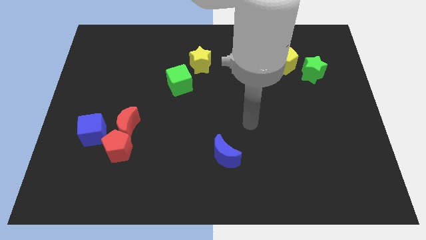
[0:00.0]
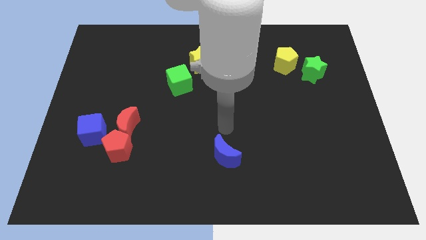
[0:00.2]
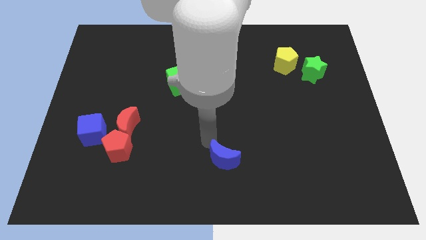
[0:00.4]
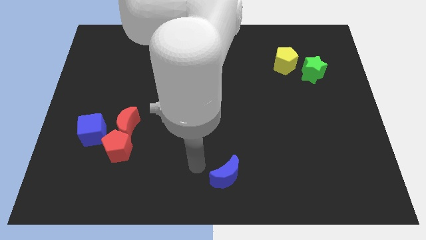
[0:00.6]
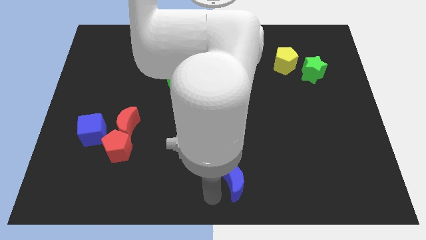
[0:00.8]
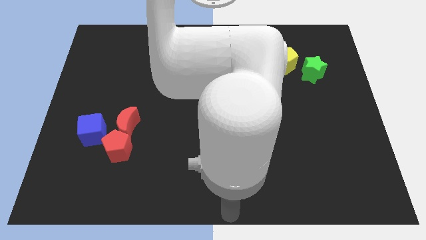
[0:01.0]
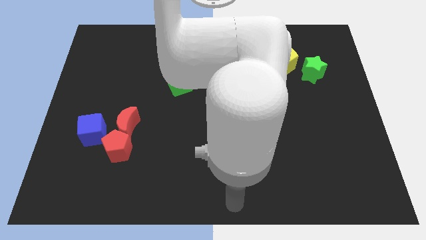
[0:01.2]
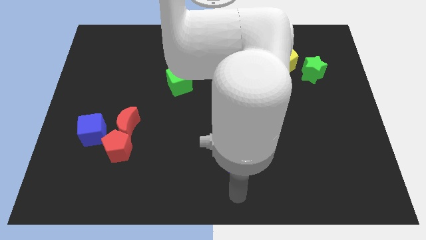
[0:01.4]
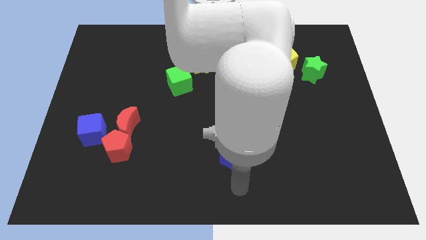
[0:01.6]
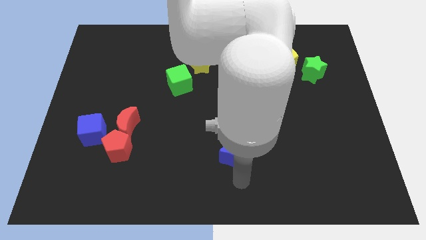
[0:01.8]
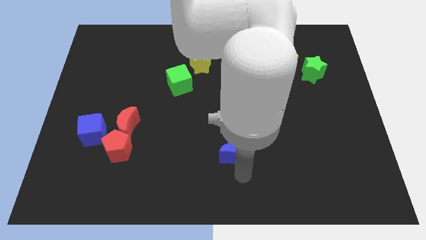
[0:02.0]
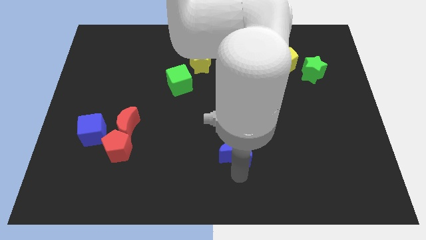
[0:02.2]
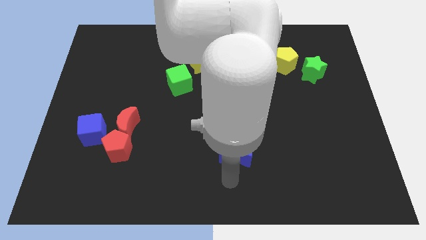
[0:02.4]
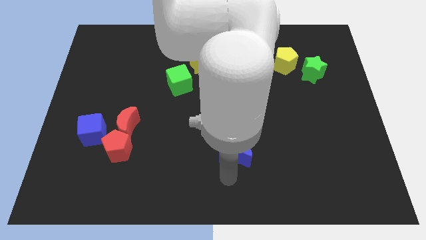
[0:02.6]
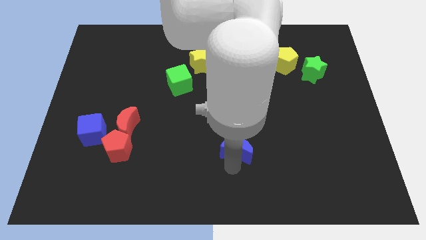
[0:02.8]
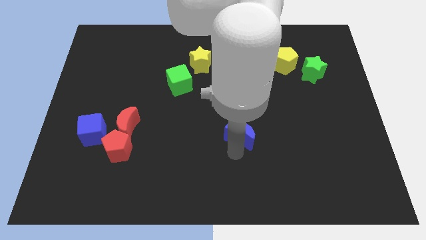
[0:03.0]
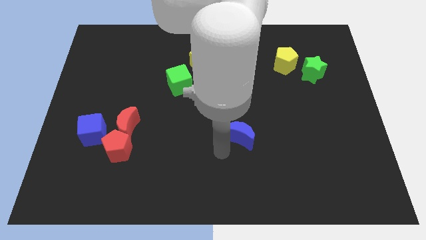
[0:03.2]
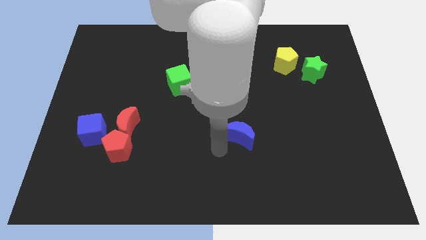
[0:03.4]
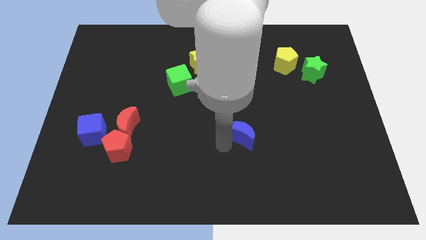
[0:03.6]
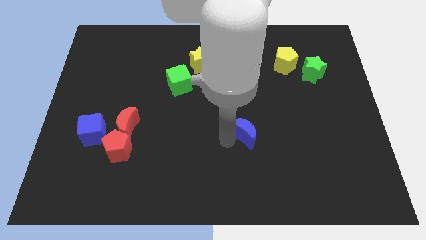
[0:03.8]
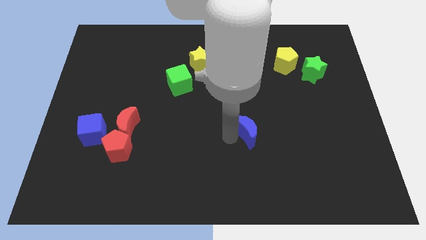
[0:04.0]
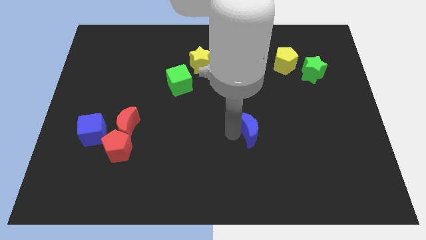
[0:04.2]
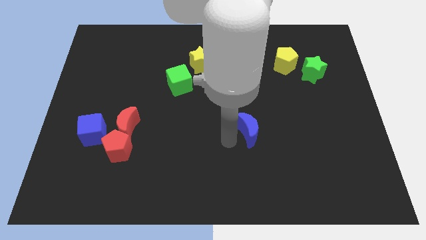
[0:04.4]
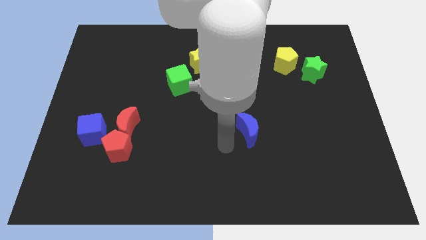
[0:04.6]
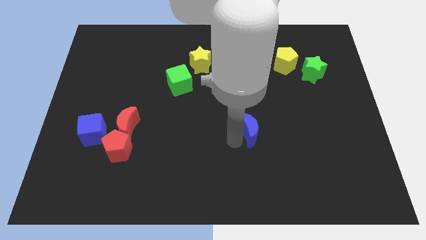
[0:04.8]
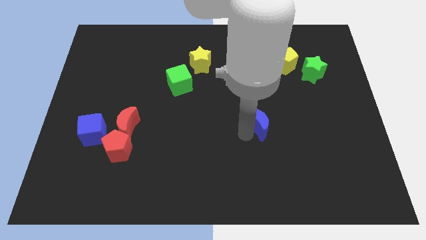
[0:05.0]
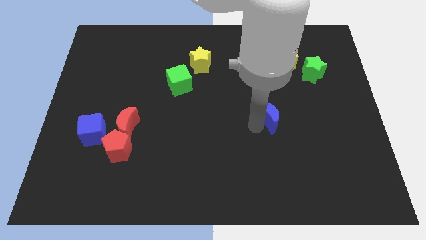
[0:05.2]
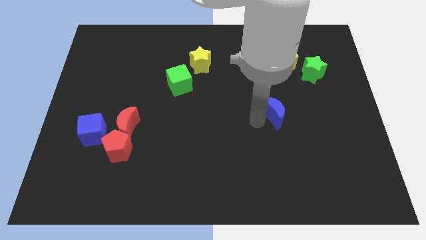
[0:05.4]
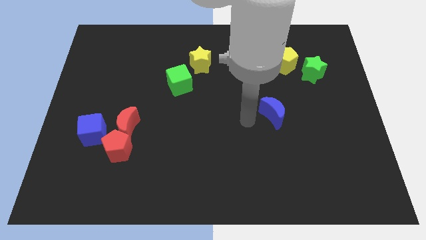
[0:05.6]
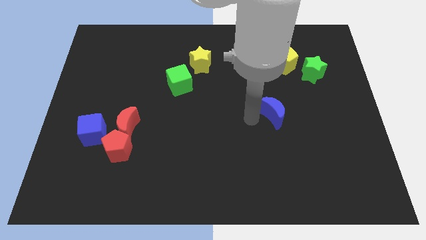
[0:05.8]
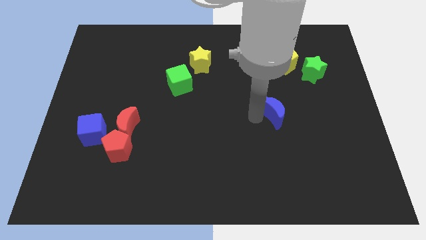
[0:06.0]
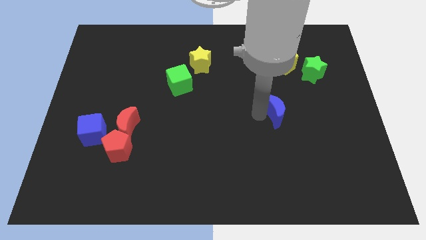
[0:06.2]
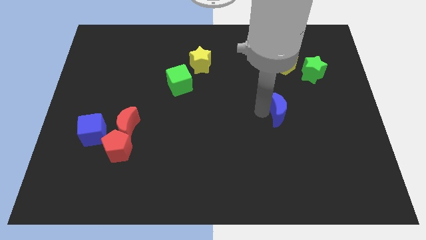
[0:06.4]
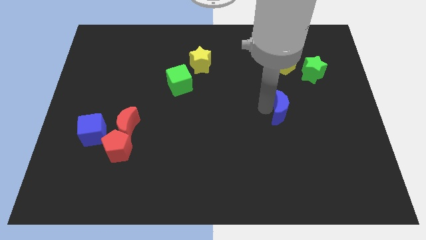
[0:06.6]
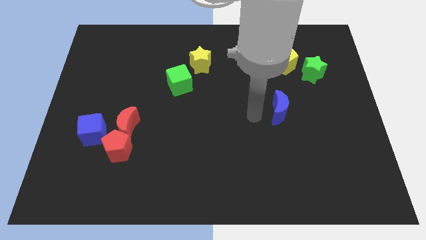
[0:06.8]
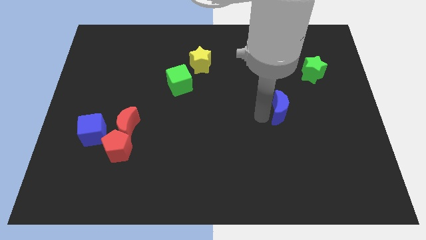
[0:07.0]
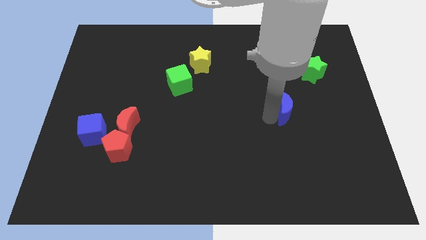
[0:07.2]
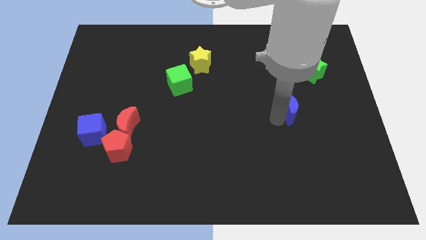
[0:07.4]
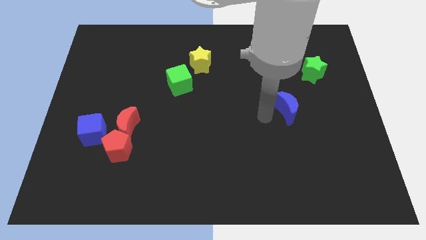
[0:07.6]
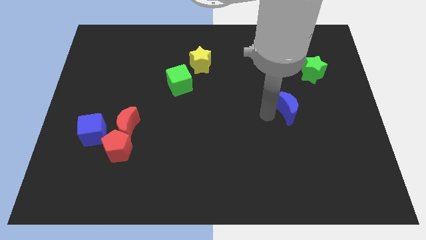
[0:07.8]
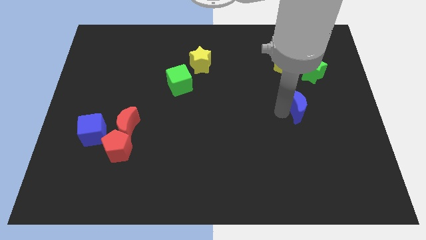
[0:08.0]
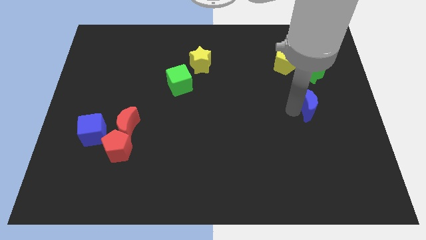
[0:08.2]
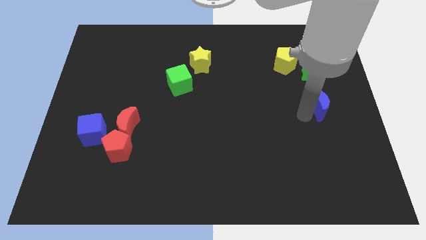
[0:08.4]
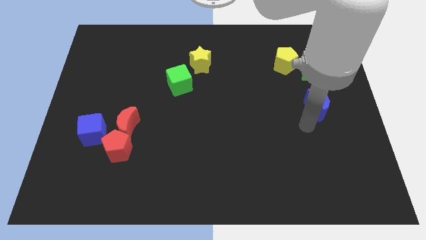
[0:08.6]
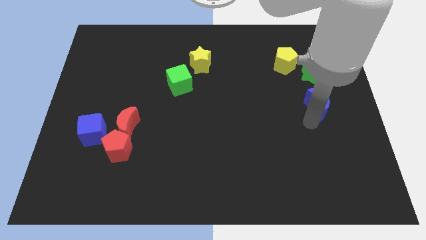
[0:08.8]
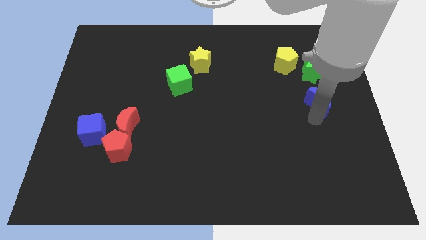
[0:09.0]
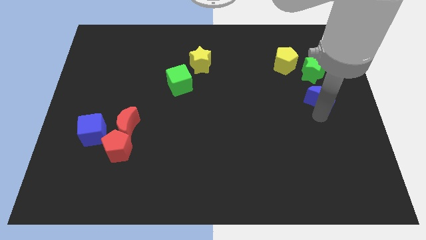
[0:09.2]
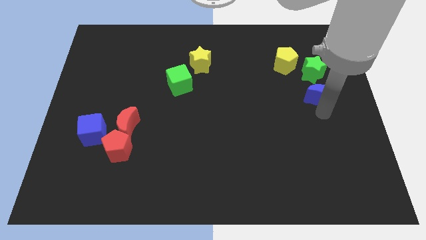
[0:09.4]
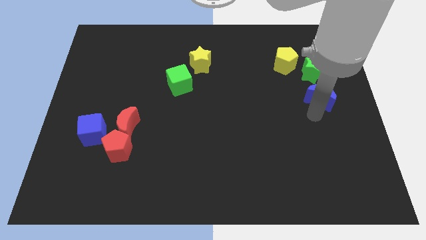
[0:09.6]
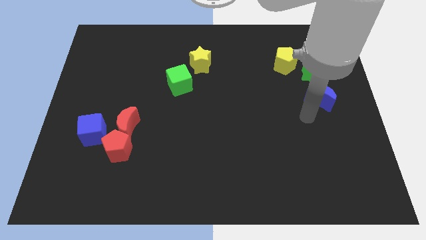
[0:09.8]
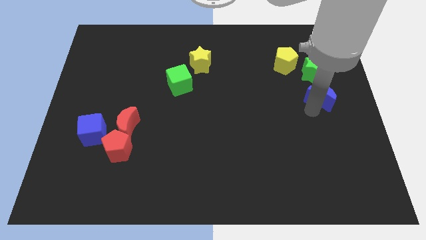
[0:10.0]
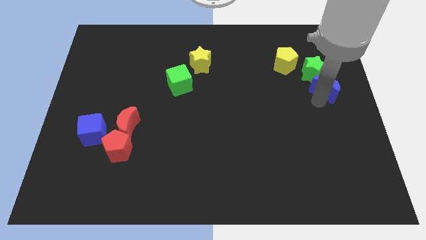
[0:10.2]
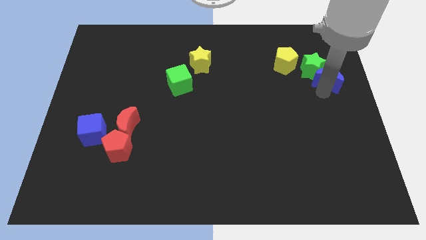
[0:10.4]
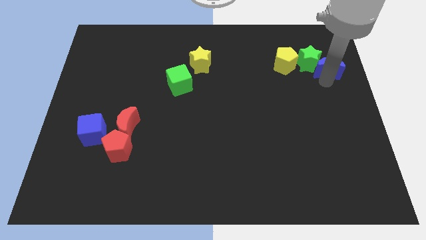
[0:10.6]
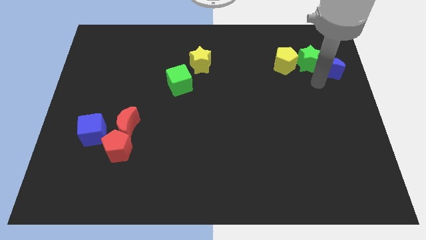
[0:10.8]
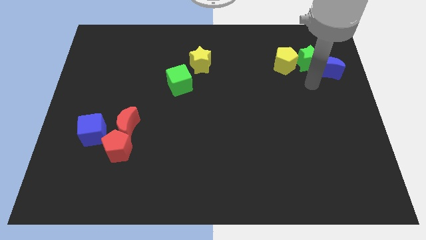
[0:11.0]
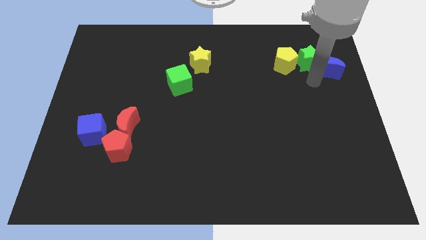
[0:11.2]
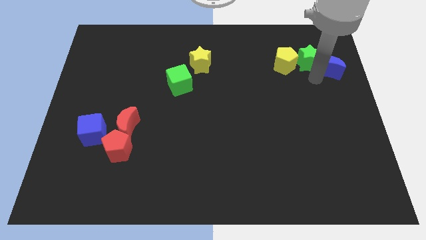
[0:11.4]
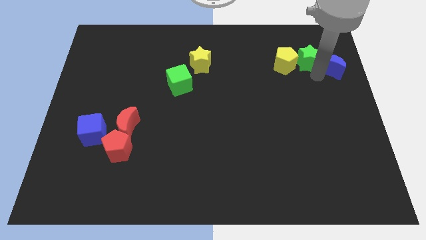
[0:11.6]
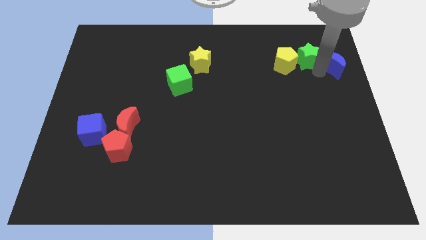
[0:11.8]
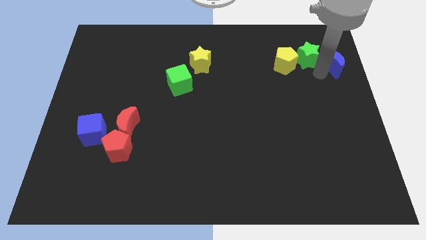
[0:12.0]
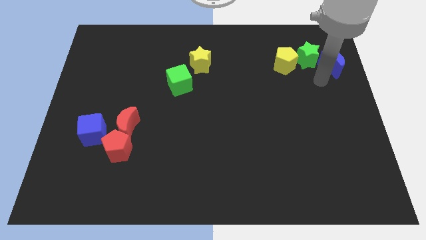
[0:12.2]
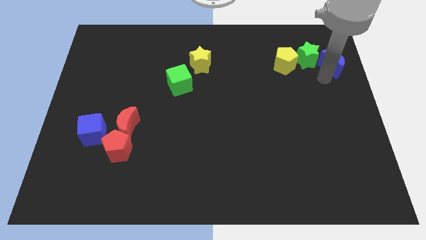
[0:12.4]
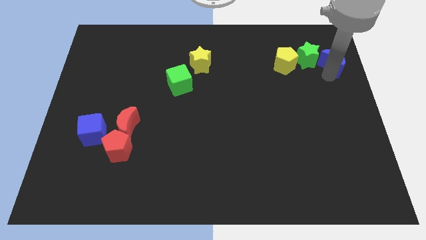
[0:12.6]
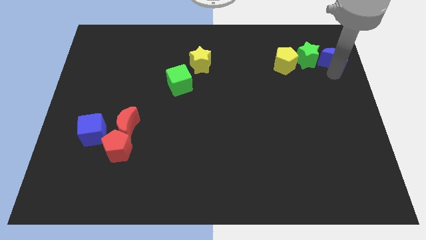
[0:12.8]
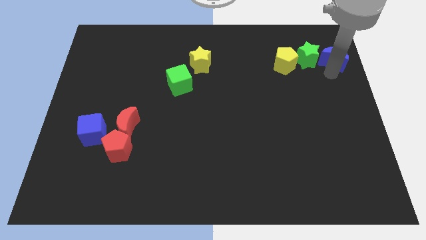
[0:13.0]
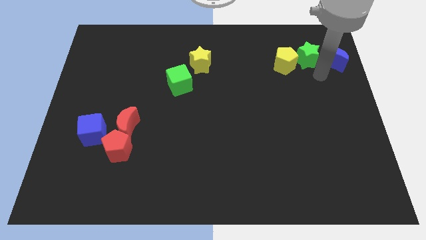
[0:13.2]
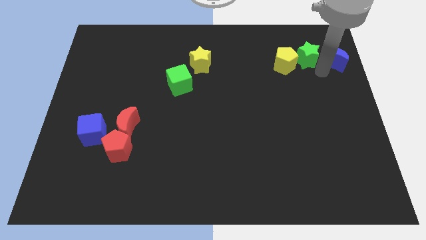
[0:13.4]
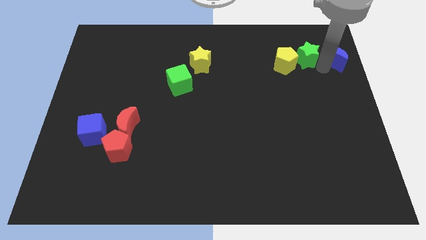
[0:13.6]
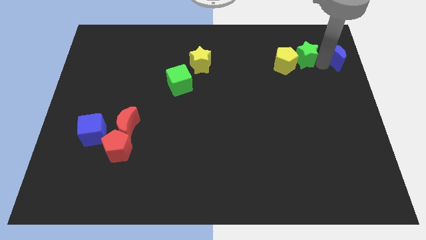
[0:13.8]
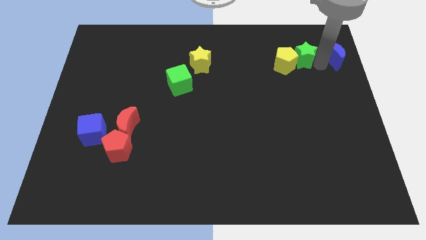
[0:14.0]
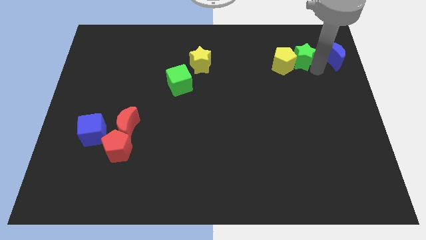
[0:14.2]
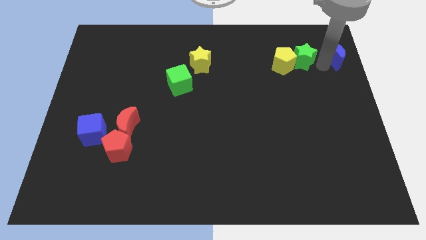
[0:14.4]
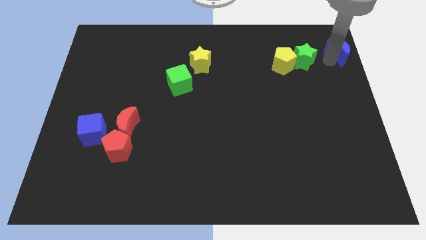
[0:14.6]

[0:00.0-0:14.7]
push the blue moon to the top right
